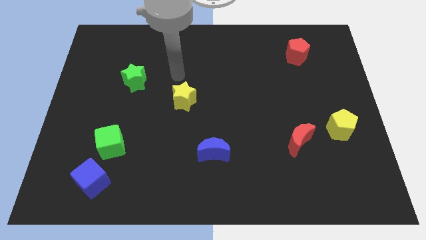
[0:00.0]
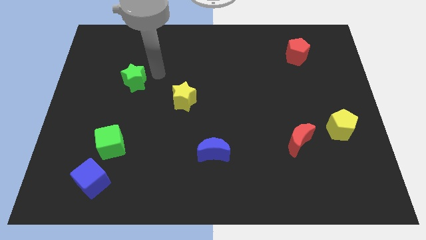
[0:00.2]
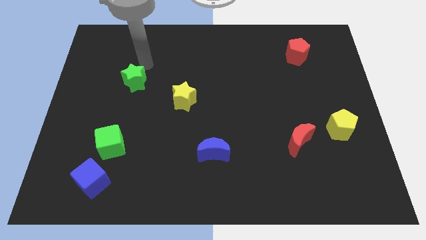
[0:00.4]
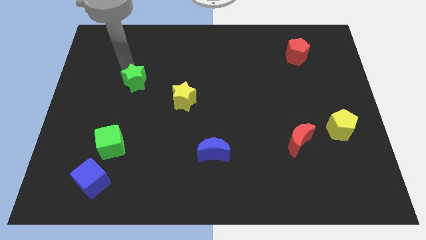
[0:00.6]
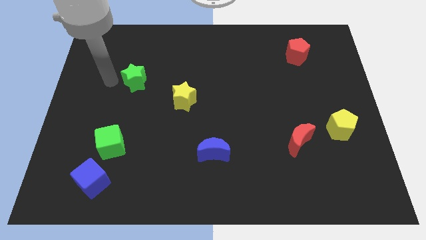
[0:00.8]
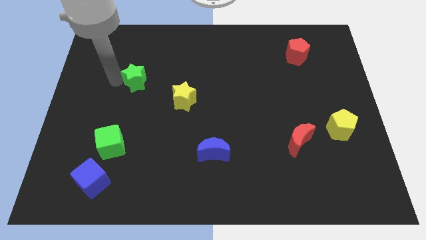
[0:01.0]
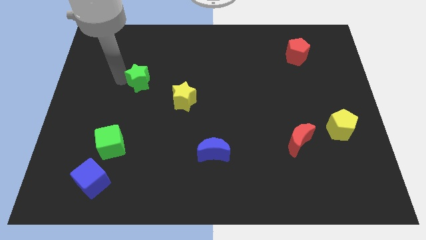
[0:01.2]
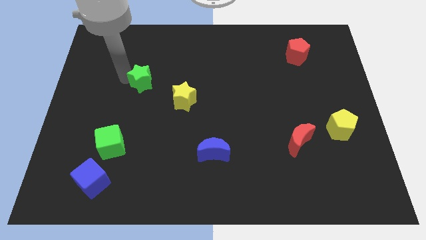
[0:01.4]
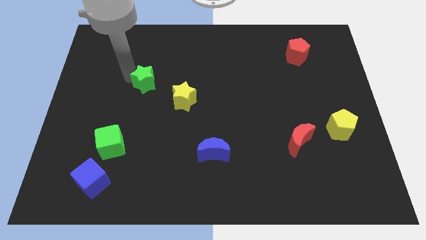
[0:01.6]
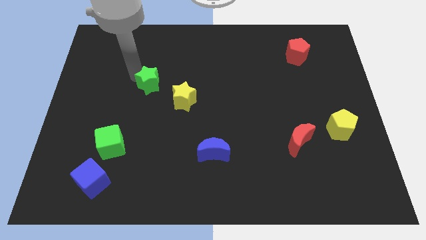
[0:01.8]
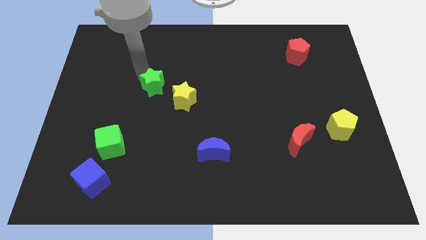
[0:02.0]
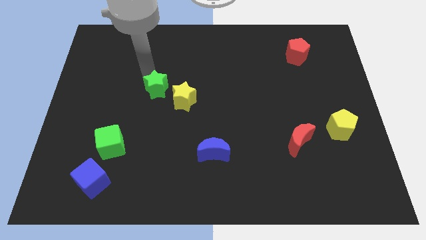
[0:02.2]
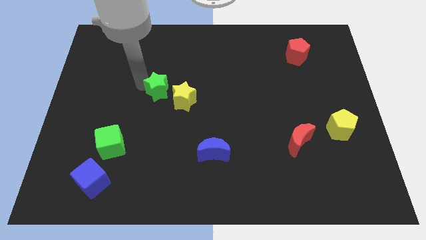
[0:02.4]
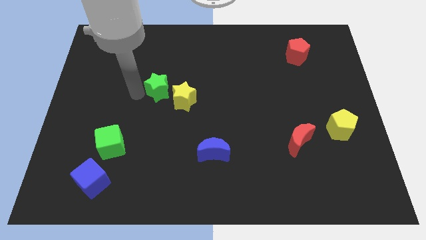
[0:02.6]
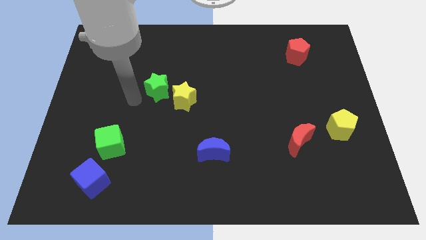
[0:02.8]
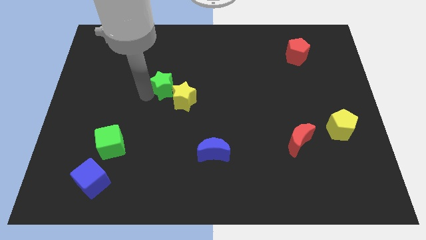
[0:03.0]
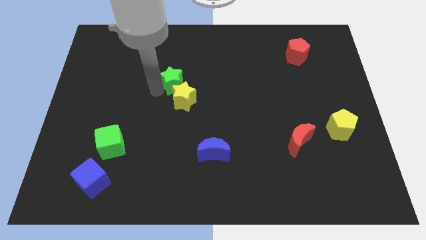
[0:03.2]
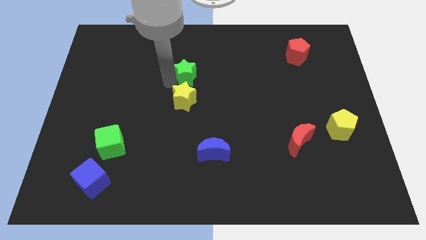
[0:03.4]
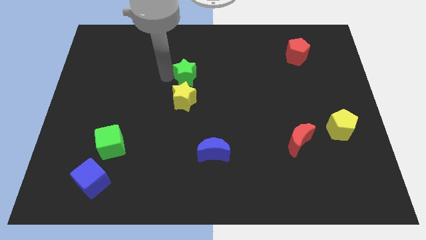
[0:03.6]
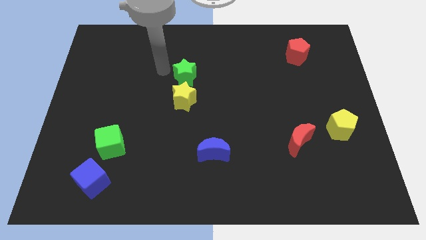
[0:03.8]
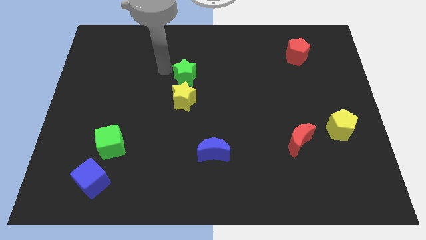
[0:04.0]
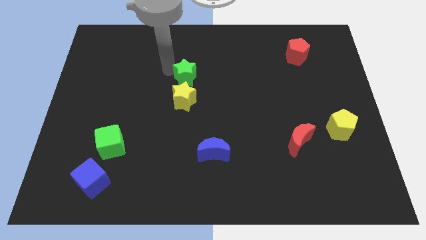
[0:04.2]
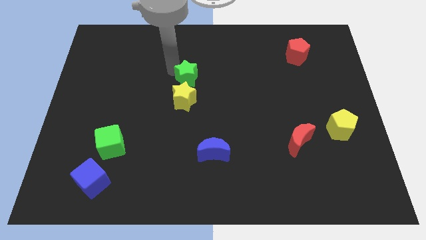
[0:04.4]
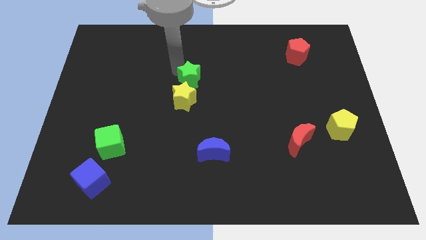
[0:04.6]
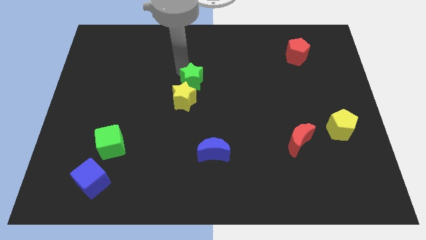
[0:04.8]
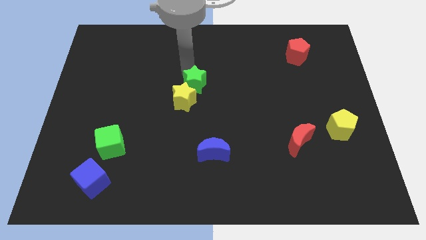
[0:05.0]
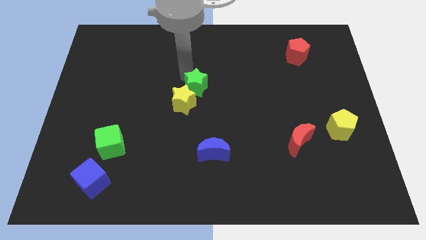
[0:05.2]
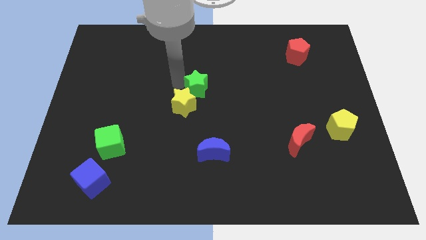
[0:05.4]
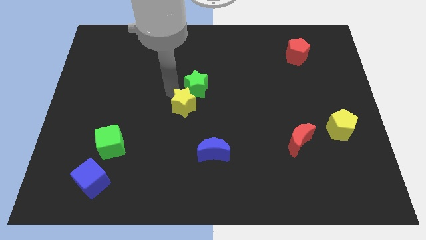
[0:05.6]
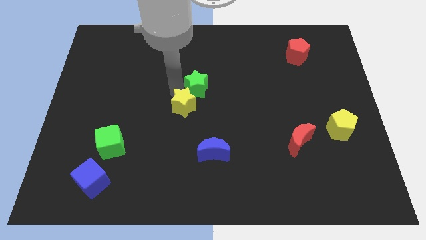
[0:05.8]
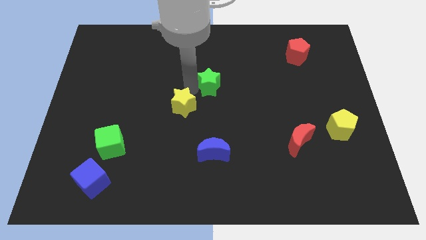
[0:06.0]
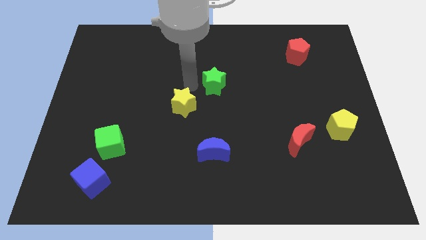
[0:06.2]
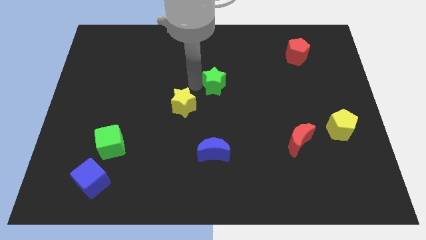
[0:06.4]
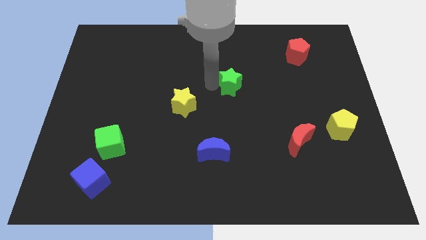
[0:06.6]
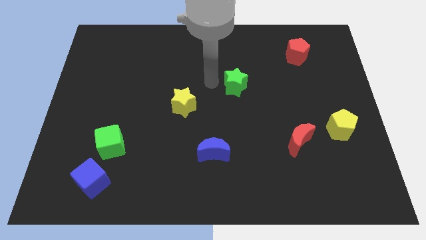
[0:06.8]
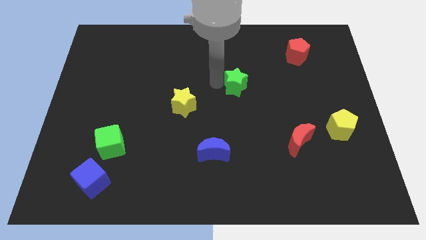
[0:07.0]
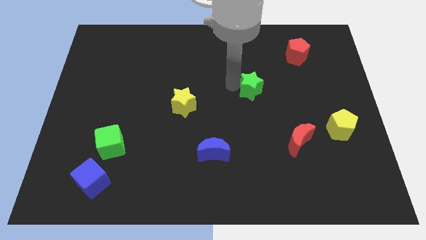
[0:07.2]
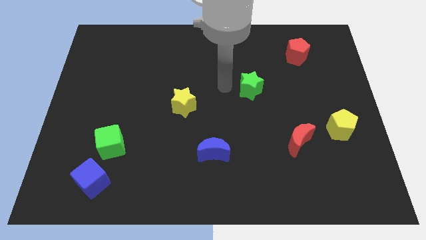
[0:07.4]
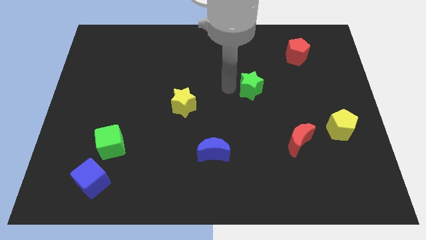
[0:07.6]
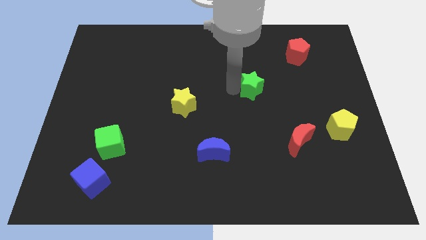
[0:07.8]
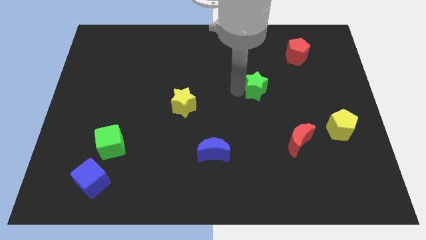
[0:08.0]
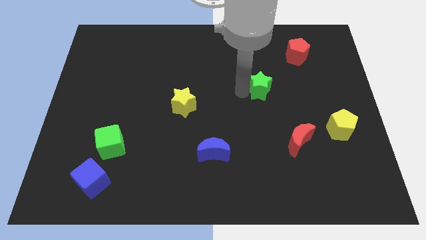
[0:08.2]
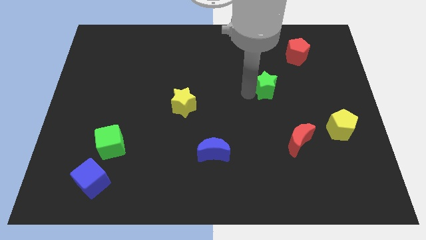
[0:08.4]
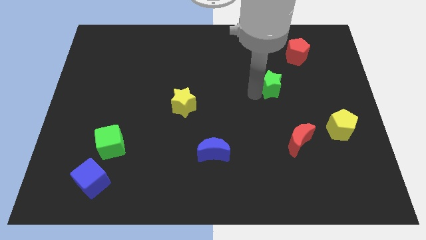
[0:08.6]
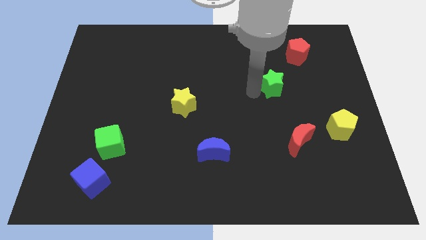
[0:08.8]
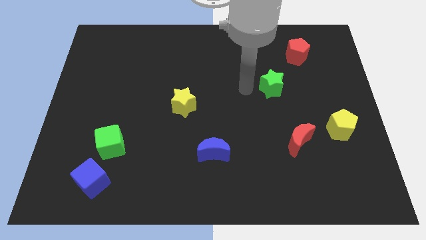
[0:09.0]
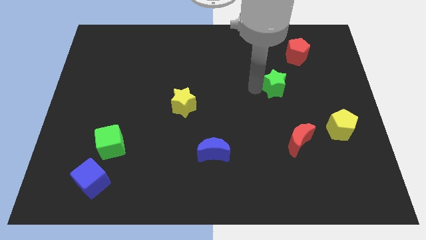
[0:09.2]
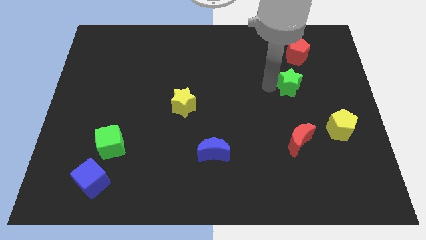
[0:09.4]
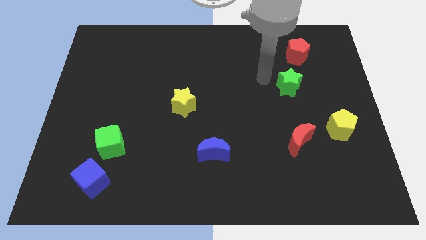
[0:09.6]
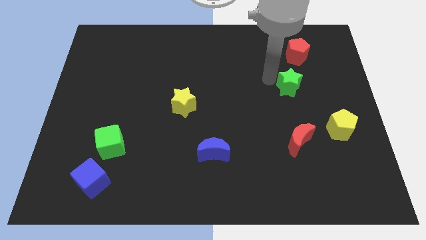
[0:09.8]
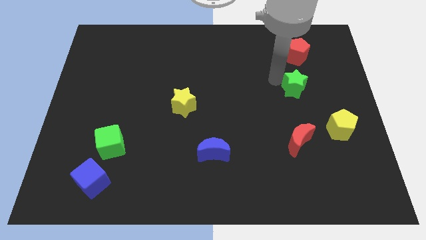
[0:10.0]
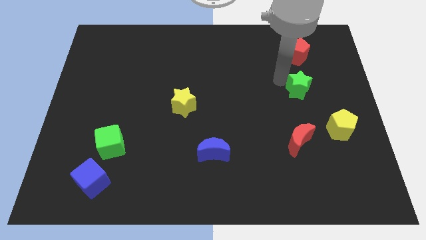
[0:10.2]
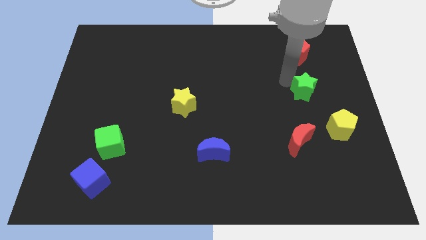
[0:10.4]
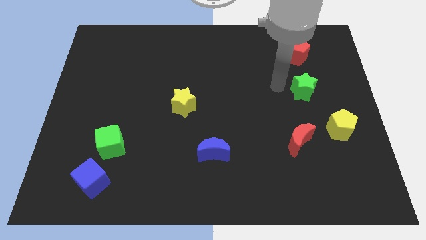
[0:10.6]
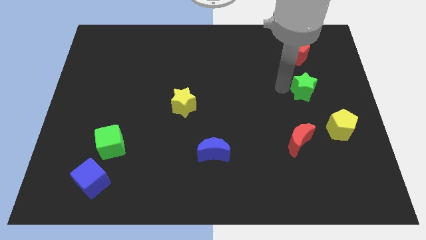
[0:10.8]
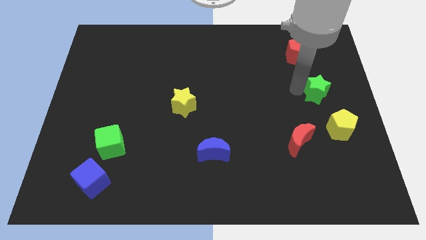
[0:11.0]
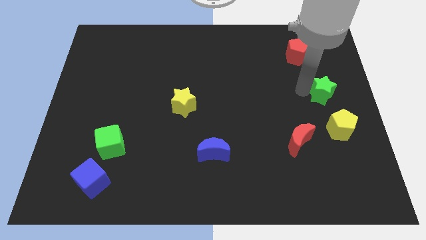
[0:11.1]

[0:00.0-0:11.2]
move the green star to the center right

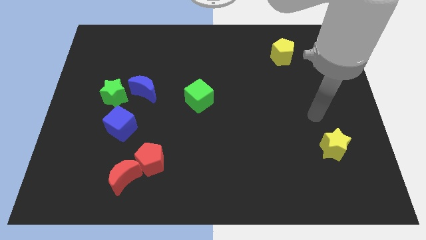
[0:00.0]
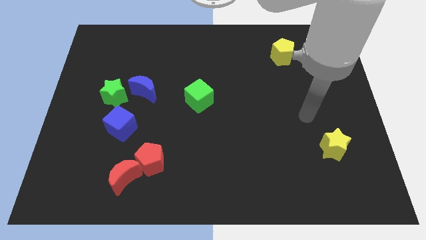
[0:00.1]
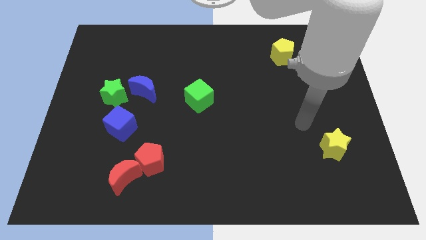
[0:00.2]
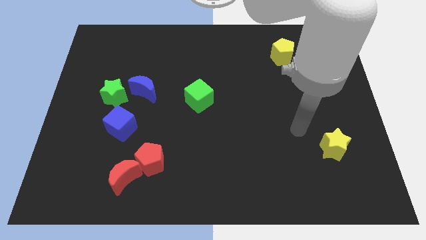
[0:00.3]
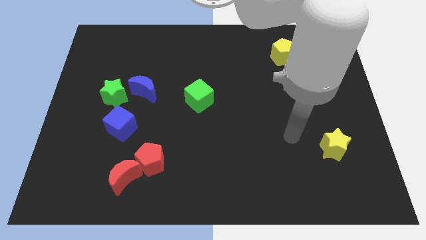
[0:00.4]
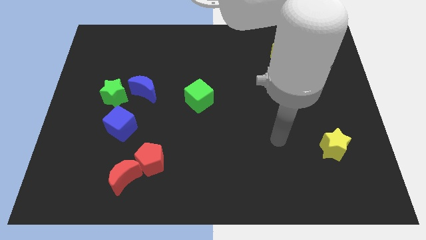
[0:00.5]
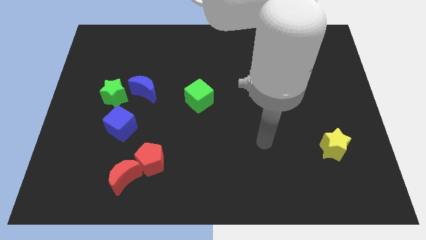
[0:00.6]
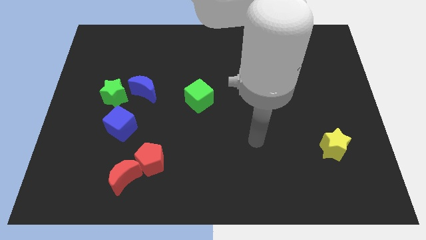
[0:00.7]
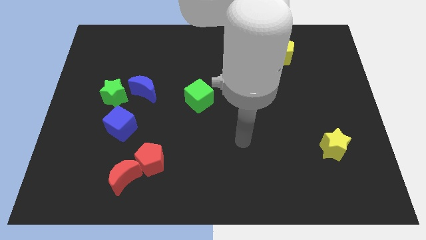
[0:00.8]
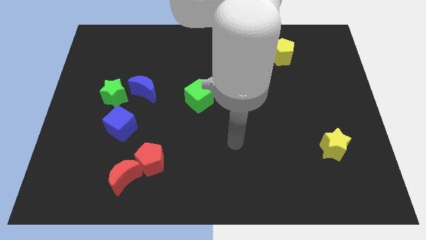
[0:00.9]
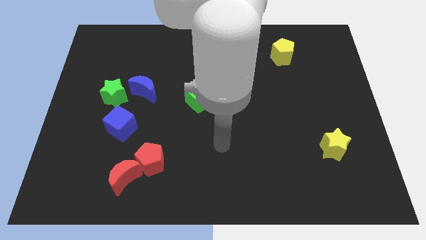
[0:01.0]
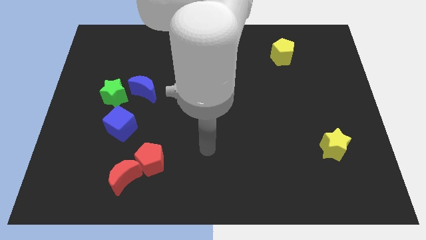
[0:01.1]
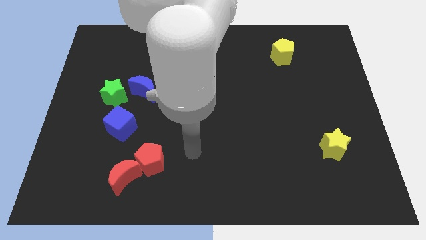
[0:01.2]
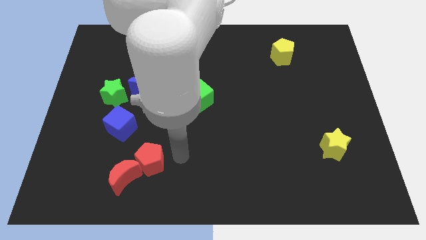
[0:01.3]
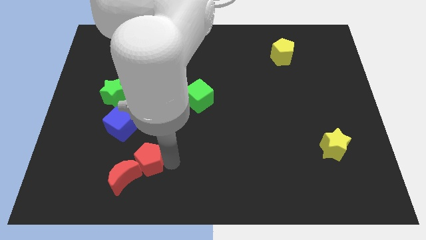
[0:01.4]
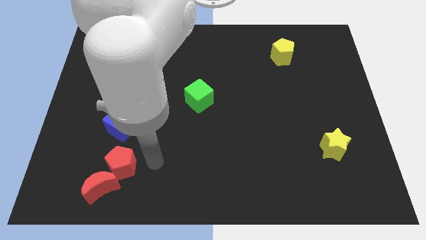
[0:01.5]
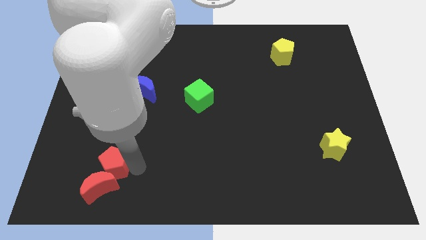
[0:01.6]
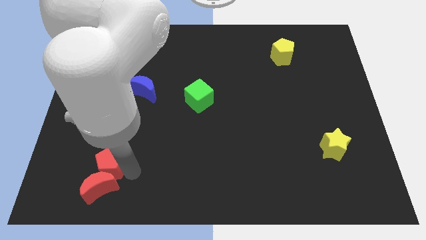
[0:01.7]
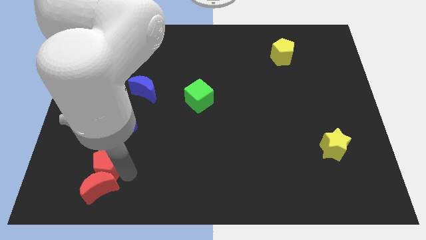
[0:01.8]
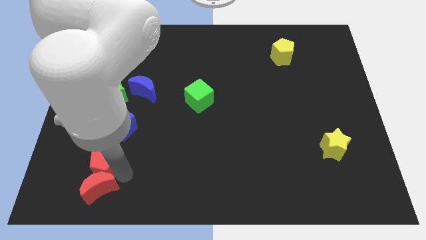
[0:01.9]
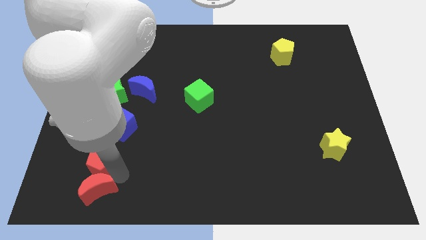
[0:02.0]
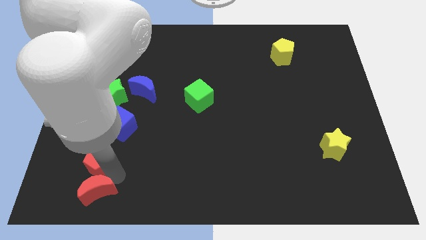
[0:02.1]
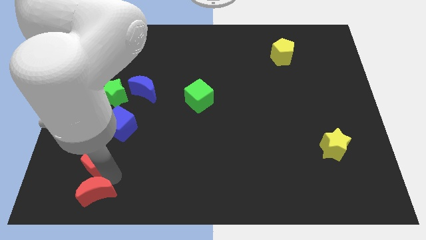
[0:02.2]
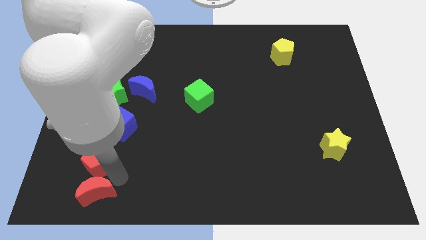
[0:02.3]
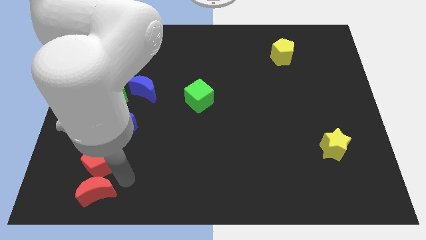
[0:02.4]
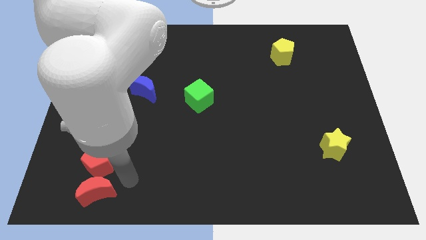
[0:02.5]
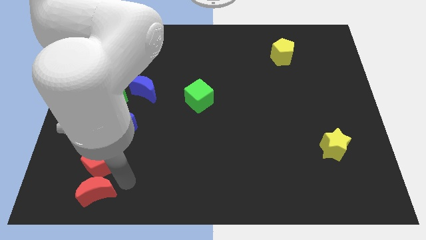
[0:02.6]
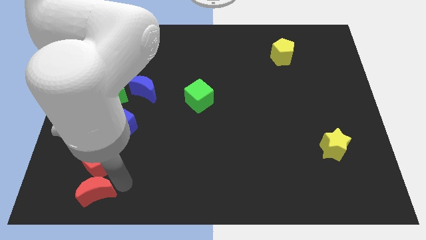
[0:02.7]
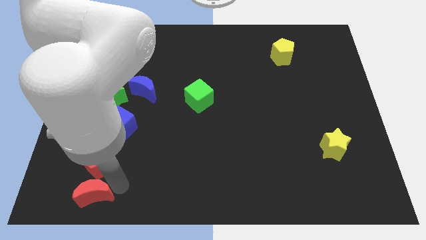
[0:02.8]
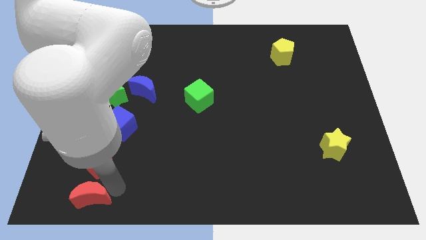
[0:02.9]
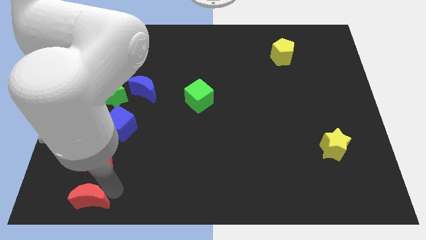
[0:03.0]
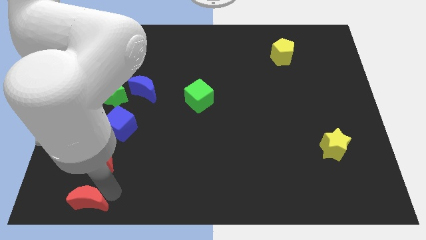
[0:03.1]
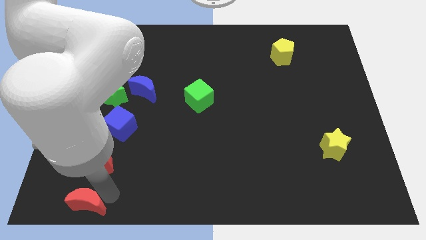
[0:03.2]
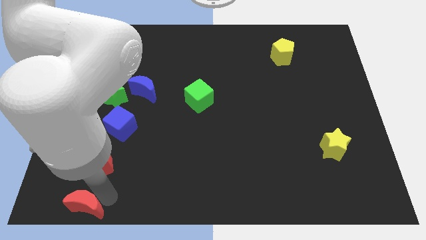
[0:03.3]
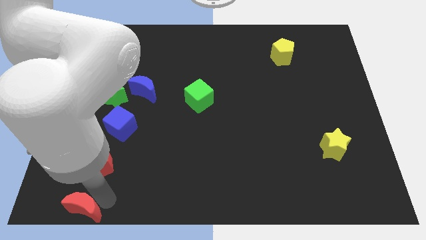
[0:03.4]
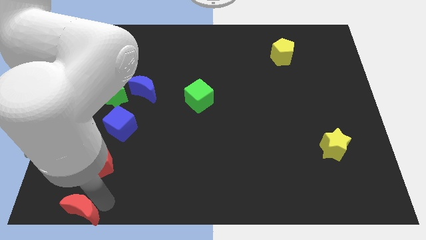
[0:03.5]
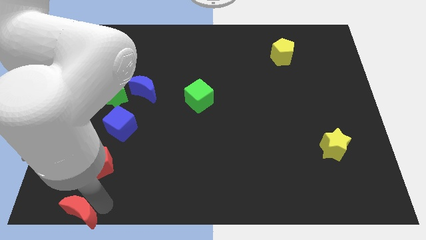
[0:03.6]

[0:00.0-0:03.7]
move the red moon to the lower left corner
